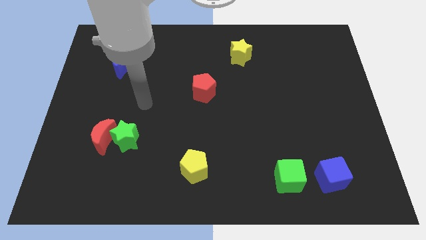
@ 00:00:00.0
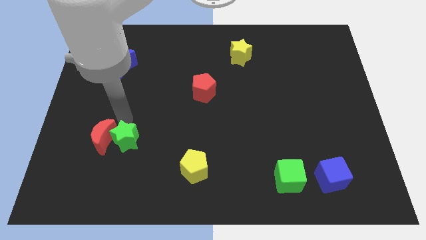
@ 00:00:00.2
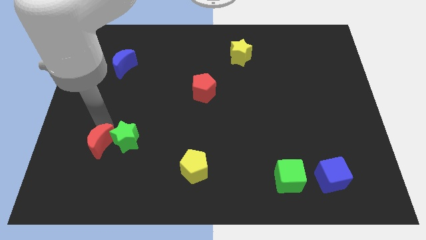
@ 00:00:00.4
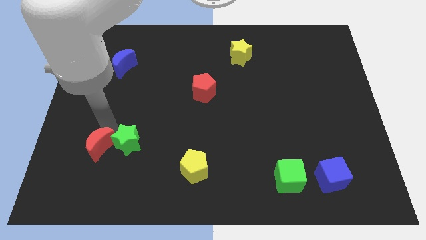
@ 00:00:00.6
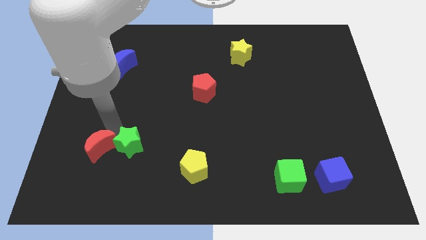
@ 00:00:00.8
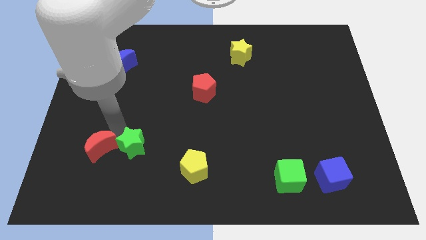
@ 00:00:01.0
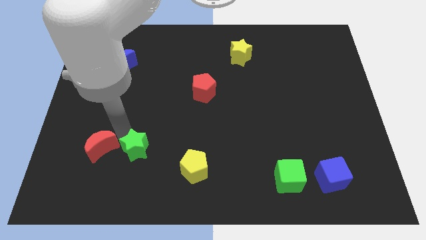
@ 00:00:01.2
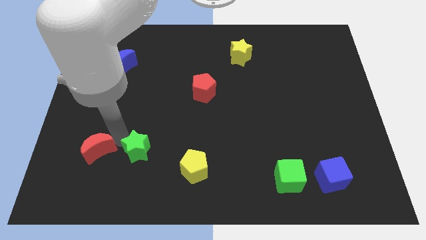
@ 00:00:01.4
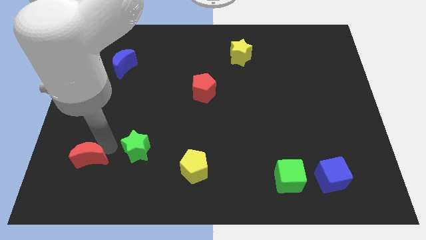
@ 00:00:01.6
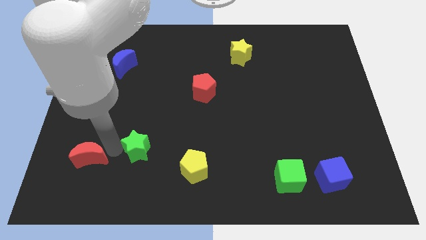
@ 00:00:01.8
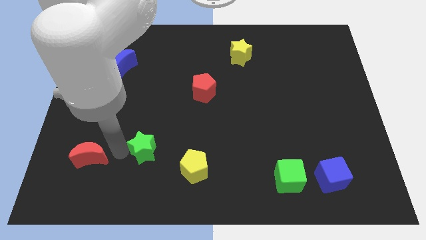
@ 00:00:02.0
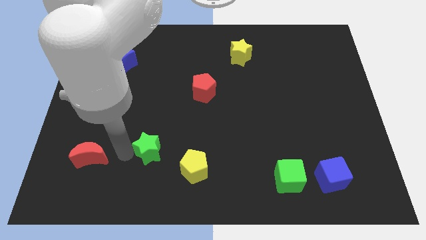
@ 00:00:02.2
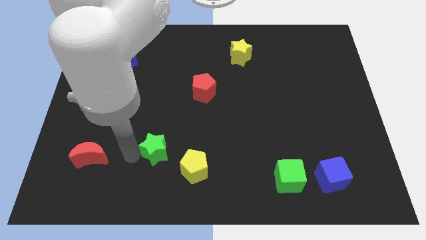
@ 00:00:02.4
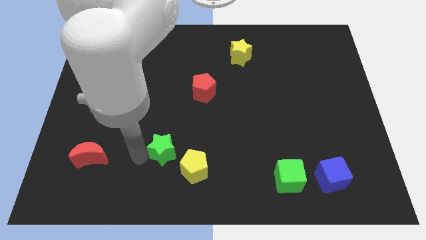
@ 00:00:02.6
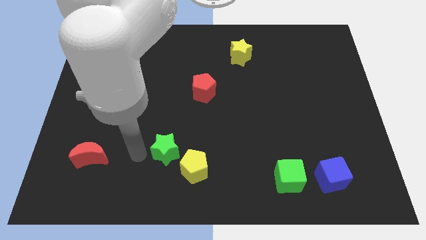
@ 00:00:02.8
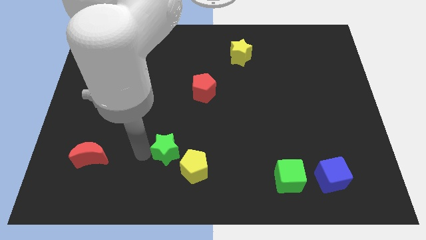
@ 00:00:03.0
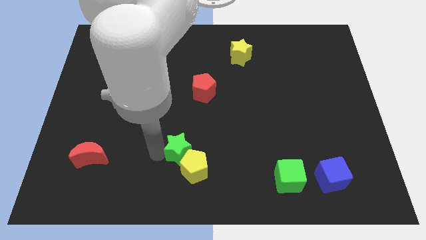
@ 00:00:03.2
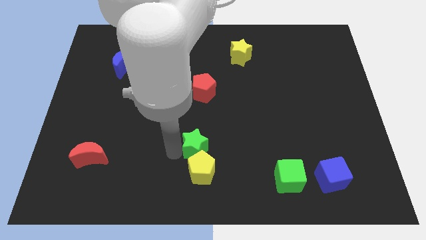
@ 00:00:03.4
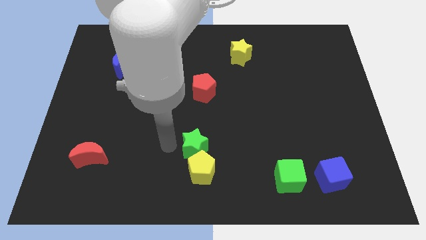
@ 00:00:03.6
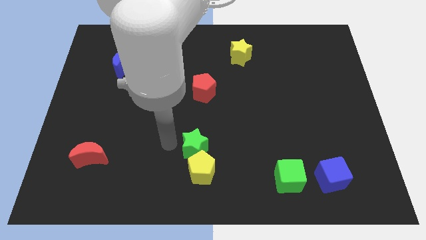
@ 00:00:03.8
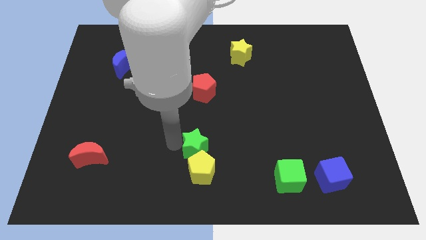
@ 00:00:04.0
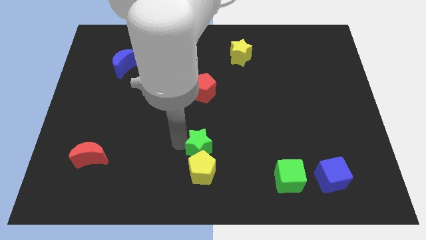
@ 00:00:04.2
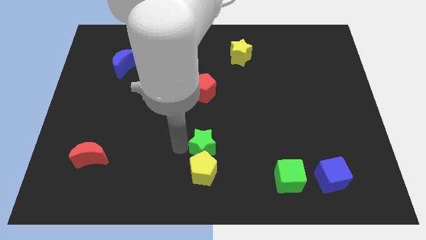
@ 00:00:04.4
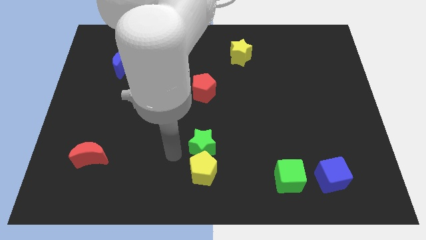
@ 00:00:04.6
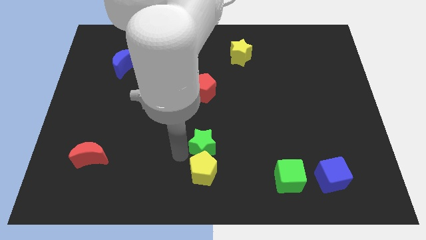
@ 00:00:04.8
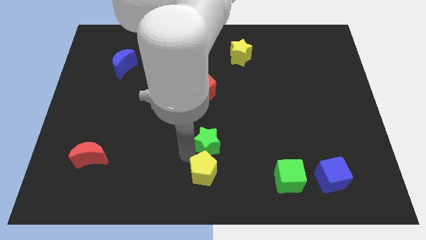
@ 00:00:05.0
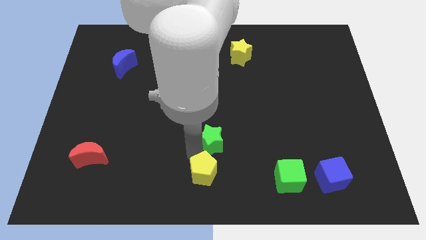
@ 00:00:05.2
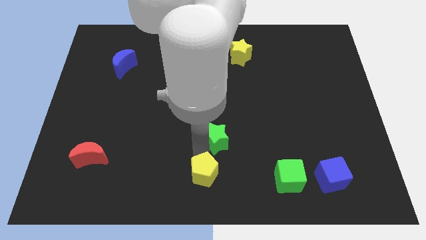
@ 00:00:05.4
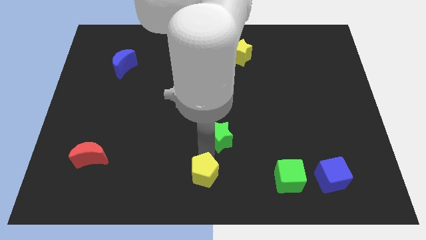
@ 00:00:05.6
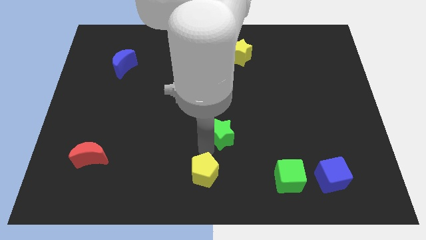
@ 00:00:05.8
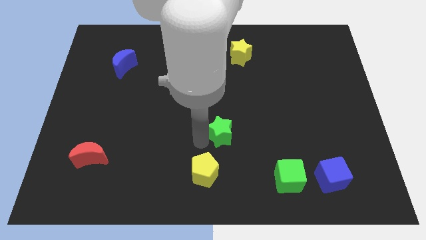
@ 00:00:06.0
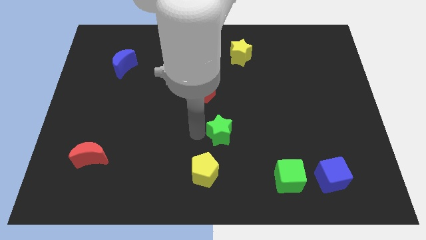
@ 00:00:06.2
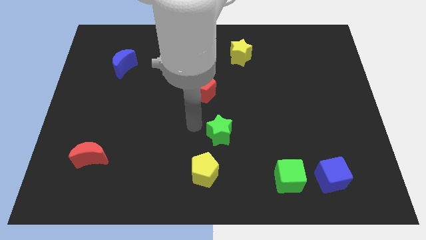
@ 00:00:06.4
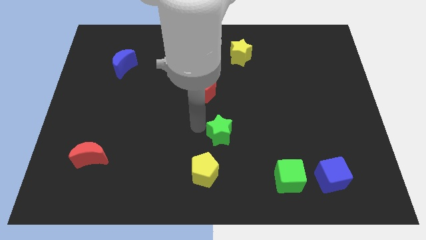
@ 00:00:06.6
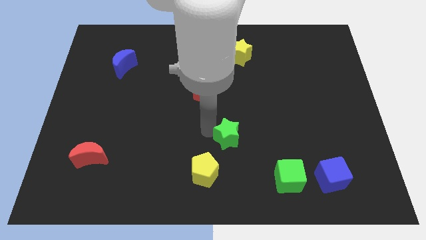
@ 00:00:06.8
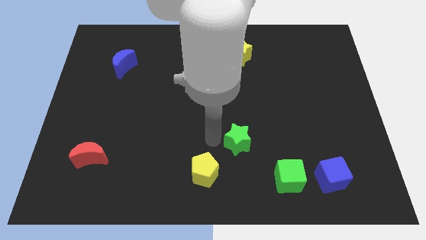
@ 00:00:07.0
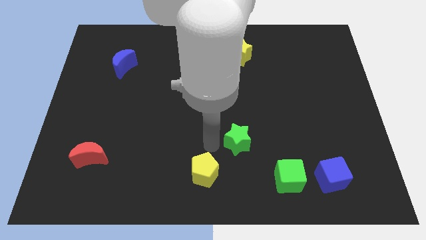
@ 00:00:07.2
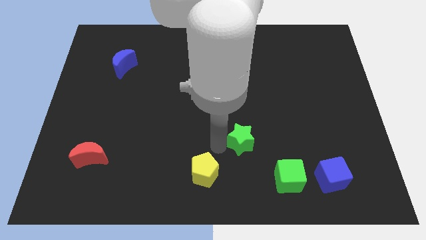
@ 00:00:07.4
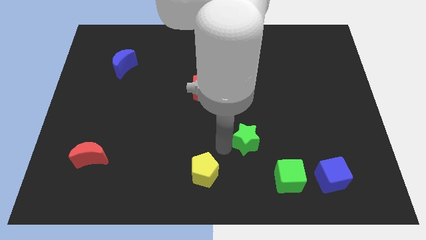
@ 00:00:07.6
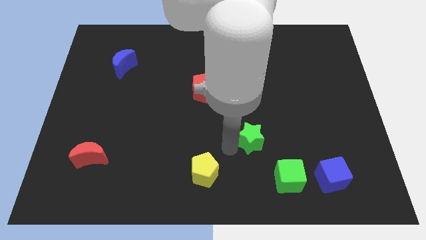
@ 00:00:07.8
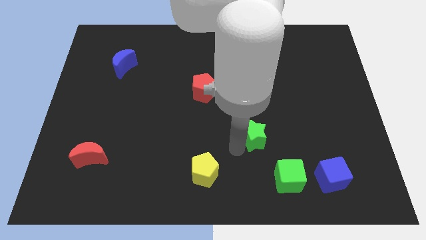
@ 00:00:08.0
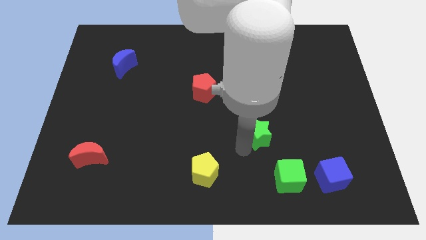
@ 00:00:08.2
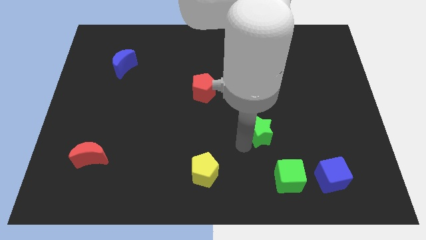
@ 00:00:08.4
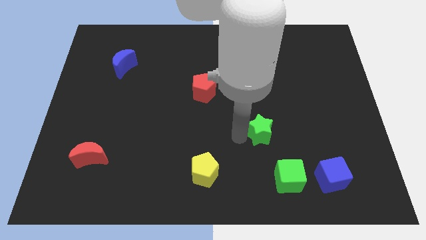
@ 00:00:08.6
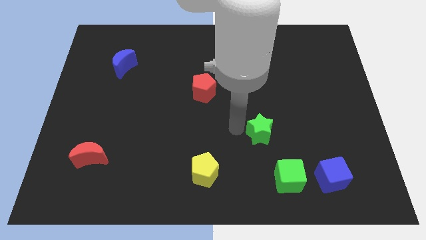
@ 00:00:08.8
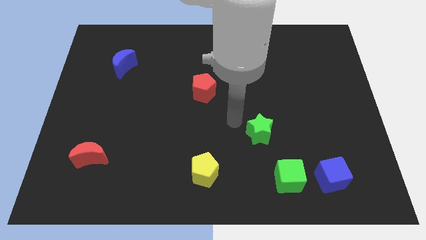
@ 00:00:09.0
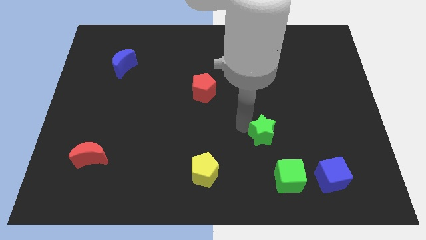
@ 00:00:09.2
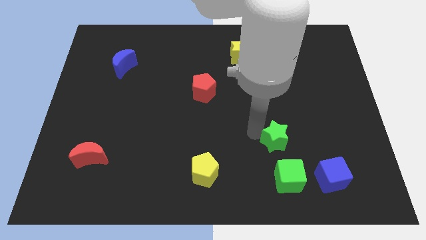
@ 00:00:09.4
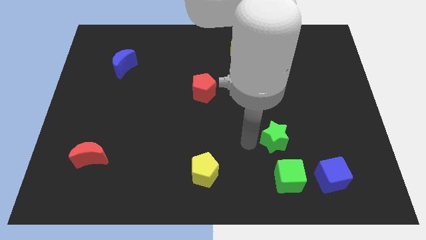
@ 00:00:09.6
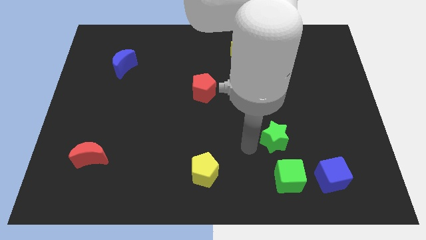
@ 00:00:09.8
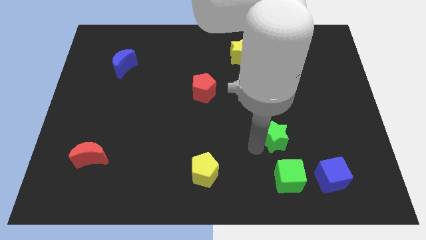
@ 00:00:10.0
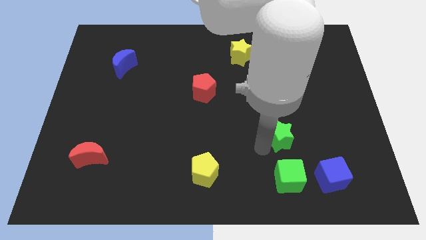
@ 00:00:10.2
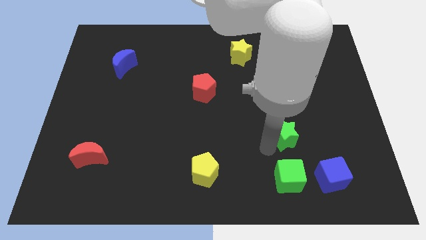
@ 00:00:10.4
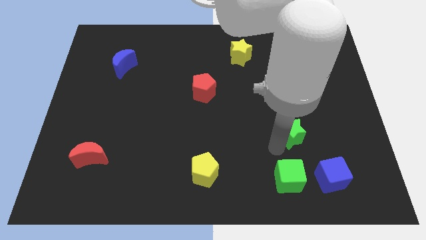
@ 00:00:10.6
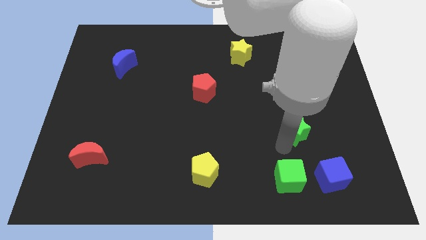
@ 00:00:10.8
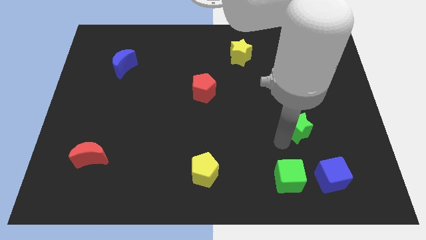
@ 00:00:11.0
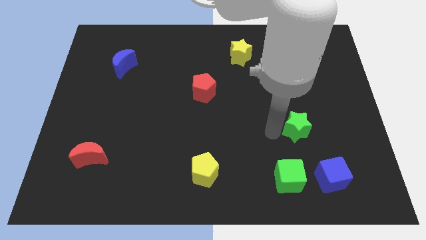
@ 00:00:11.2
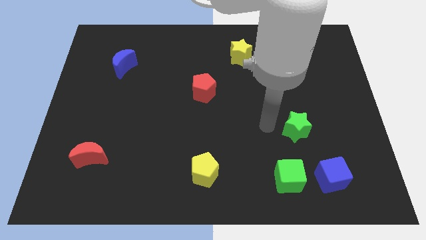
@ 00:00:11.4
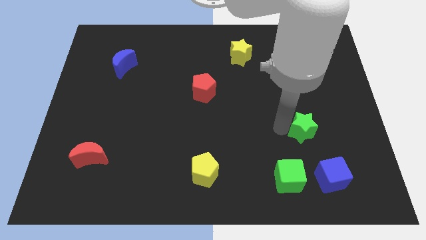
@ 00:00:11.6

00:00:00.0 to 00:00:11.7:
move the green star above the blue cube

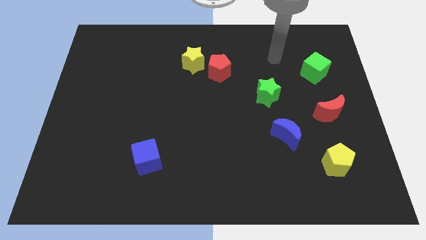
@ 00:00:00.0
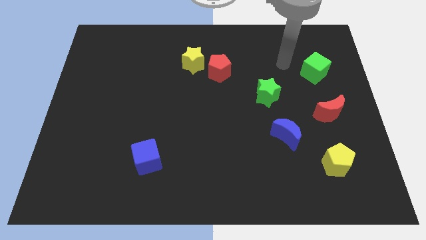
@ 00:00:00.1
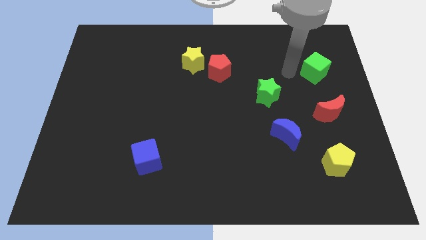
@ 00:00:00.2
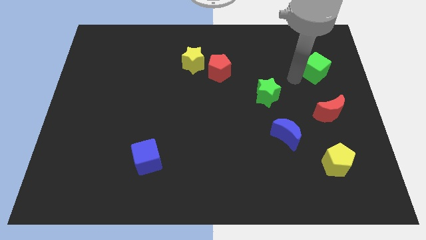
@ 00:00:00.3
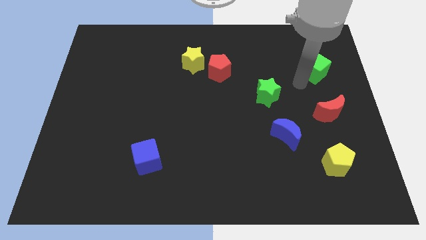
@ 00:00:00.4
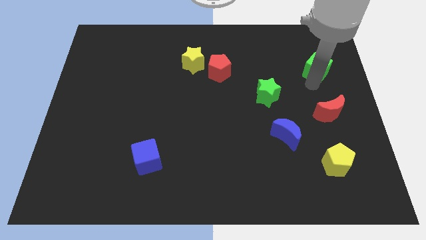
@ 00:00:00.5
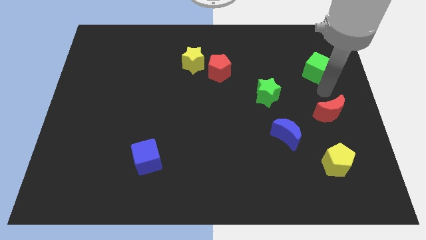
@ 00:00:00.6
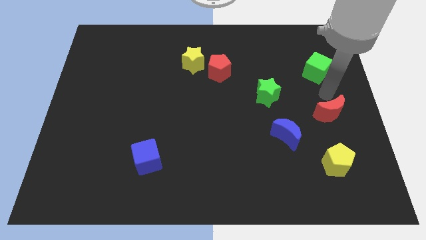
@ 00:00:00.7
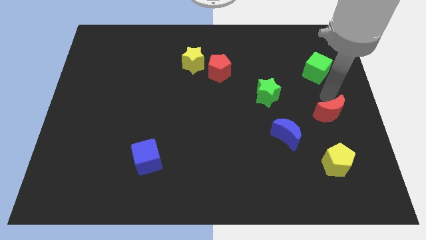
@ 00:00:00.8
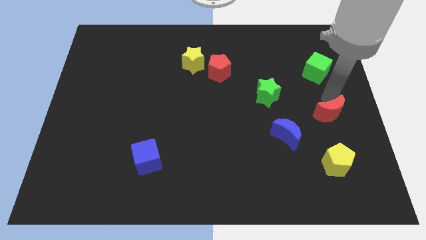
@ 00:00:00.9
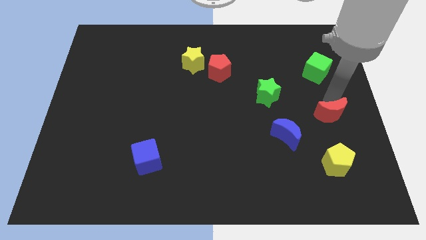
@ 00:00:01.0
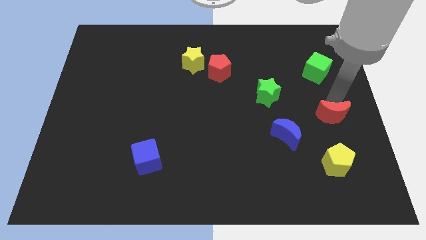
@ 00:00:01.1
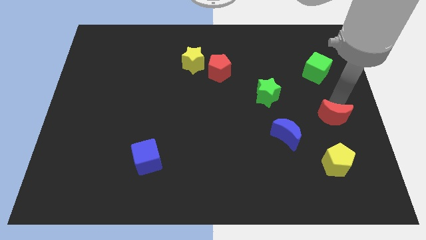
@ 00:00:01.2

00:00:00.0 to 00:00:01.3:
put the red moon right of the blue moon
